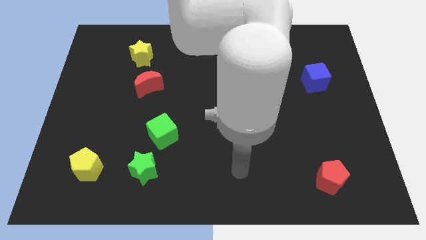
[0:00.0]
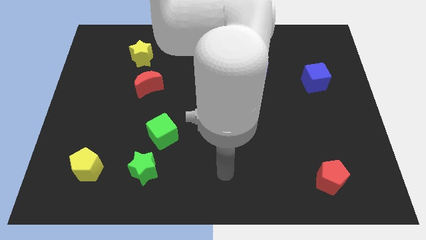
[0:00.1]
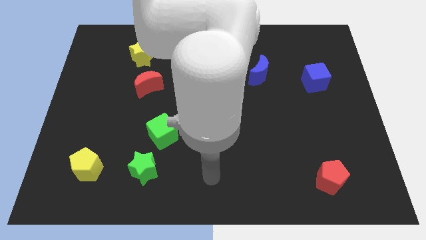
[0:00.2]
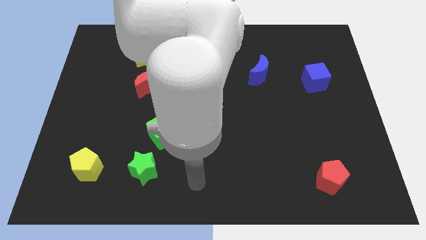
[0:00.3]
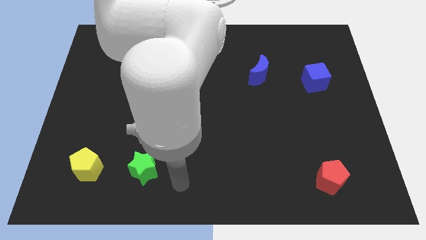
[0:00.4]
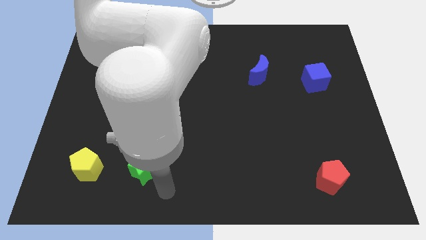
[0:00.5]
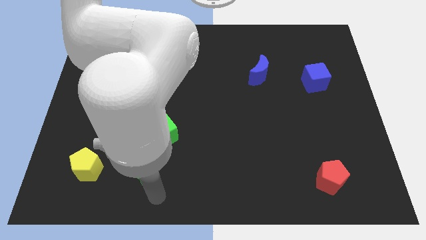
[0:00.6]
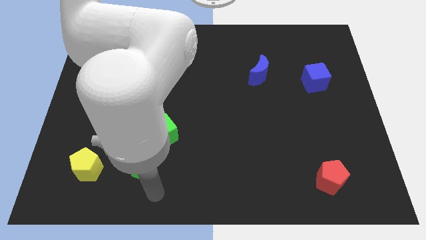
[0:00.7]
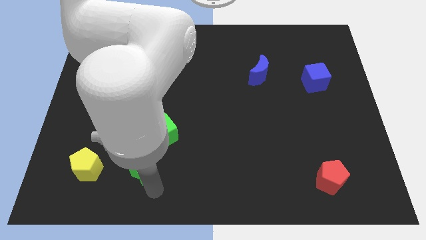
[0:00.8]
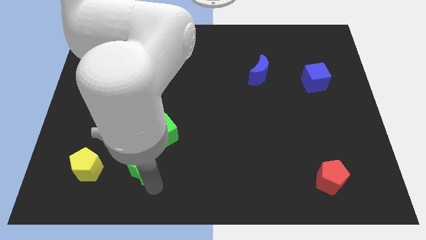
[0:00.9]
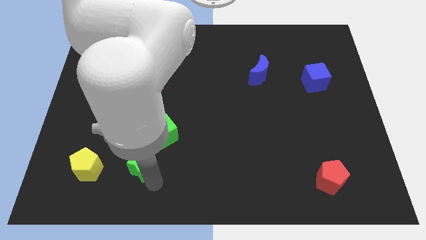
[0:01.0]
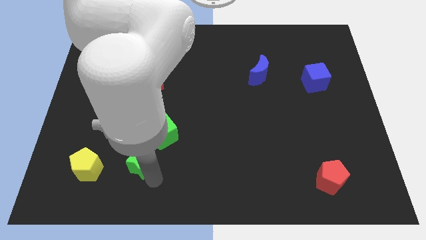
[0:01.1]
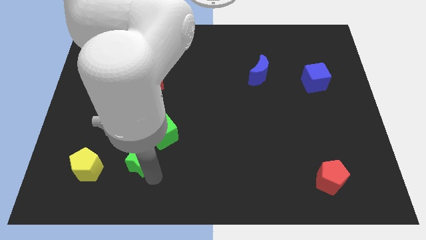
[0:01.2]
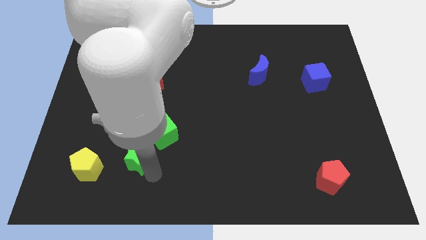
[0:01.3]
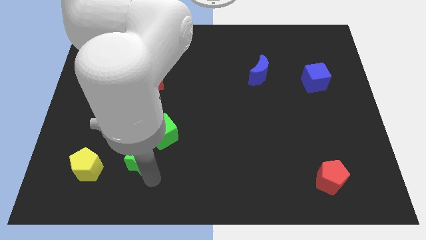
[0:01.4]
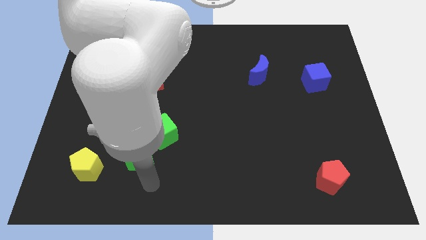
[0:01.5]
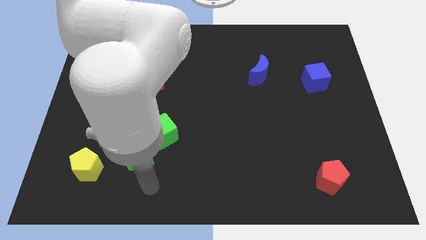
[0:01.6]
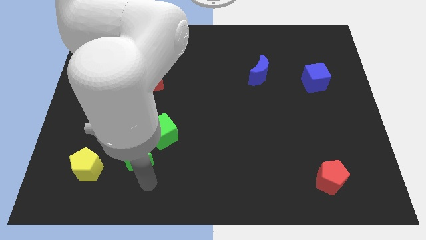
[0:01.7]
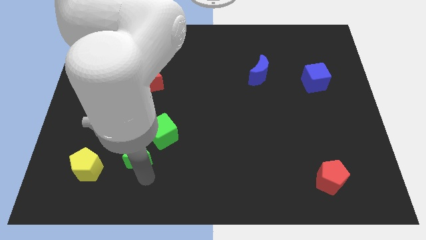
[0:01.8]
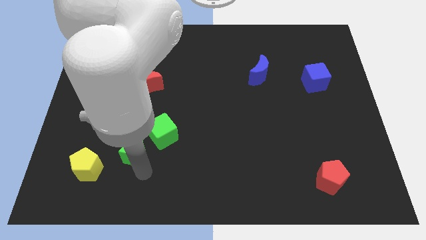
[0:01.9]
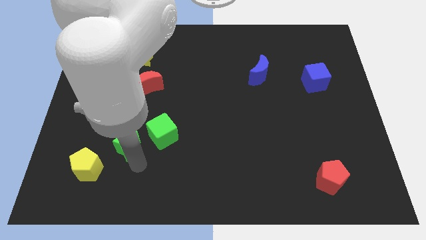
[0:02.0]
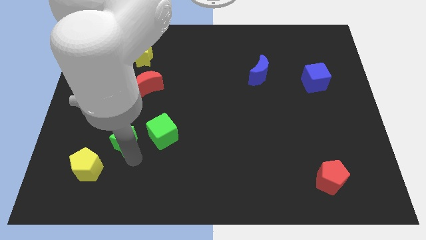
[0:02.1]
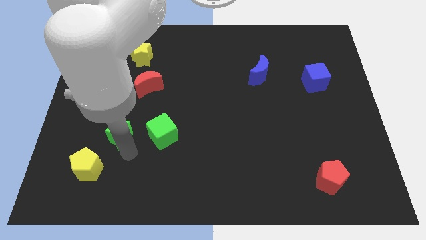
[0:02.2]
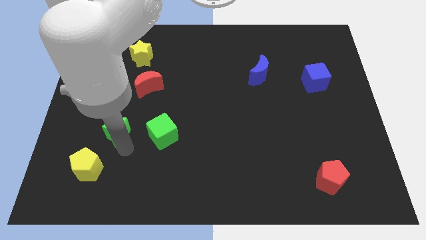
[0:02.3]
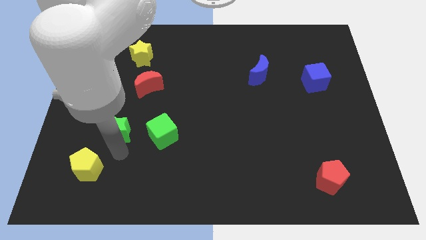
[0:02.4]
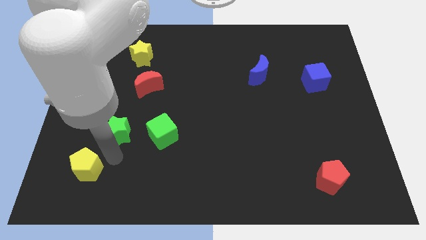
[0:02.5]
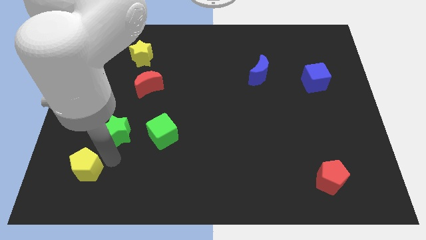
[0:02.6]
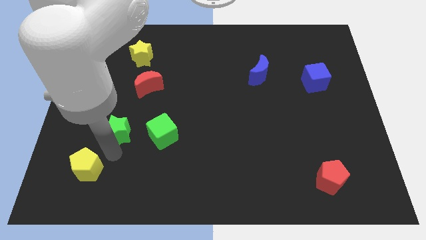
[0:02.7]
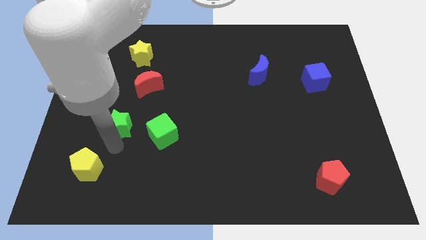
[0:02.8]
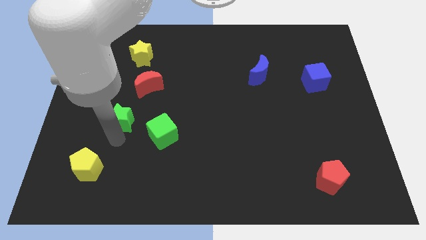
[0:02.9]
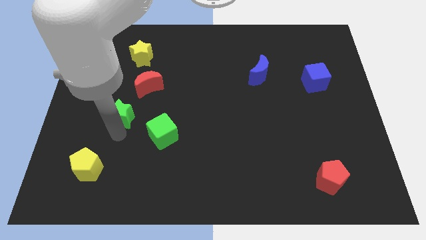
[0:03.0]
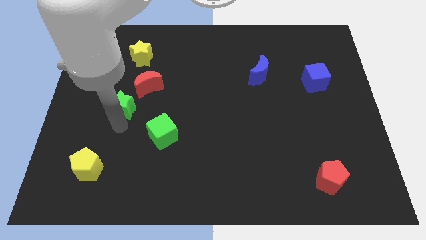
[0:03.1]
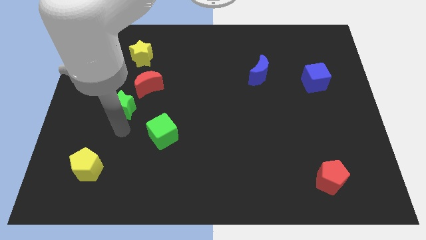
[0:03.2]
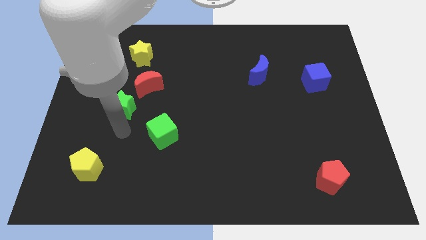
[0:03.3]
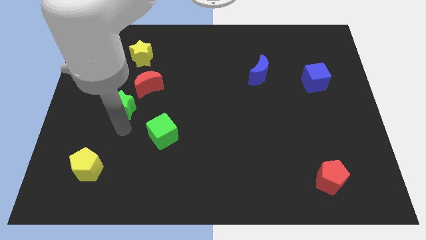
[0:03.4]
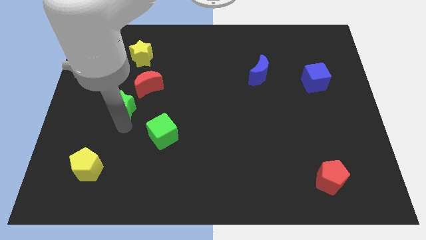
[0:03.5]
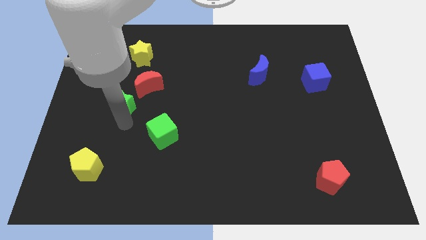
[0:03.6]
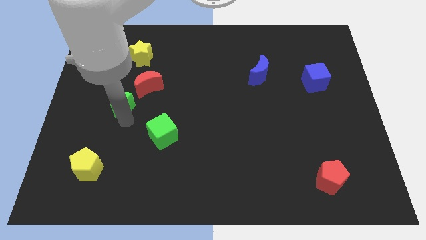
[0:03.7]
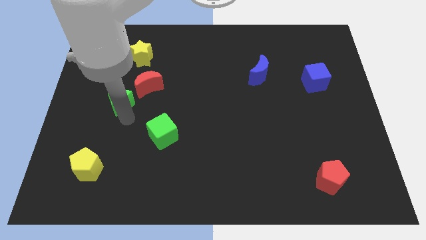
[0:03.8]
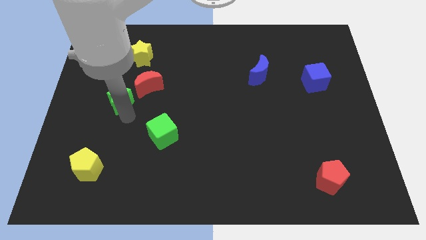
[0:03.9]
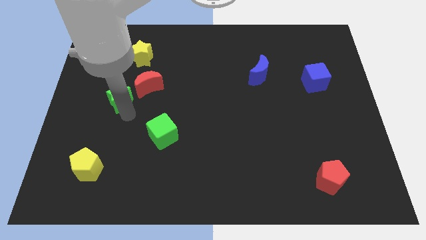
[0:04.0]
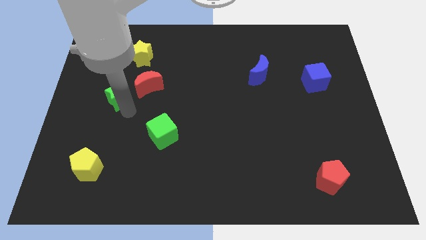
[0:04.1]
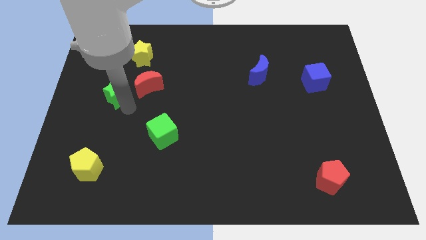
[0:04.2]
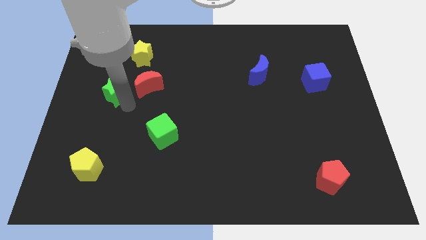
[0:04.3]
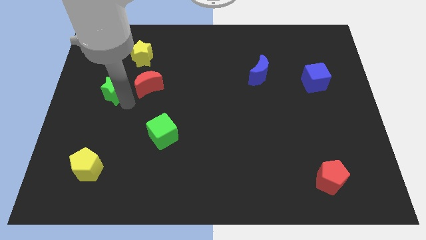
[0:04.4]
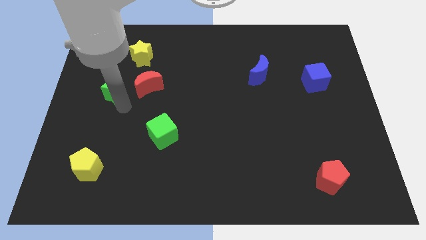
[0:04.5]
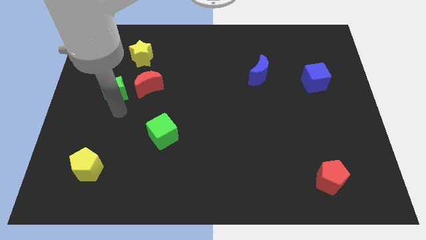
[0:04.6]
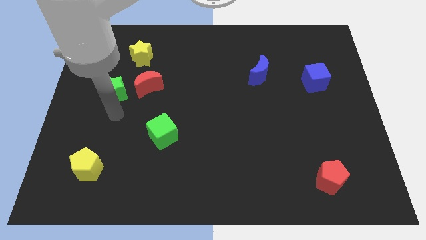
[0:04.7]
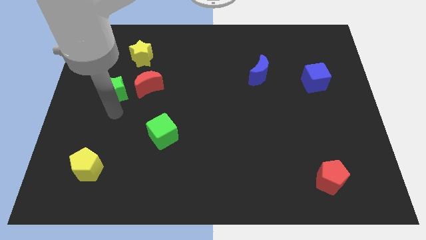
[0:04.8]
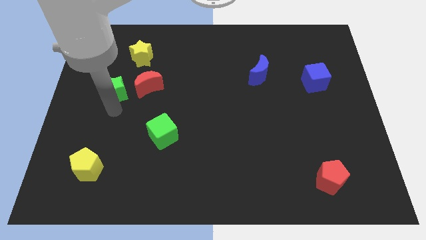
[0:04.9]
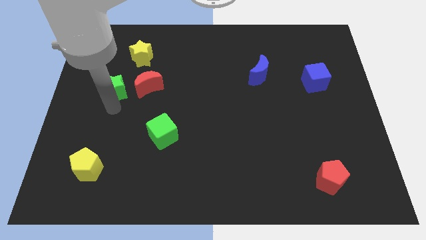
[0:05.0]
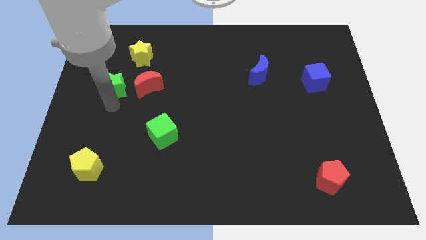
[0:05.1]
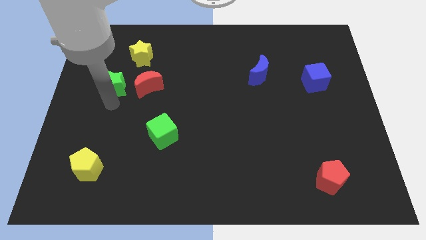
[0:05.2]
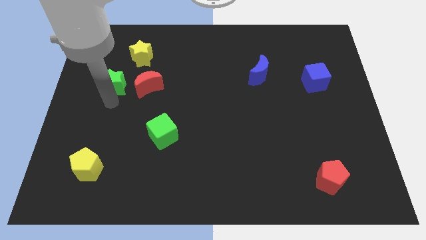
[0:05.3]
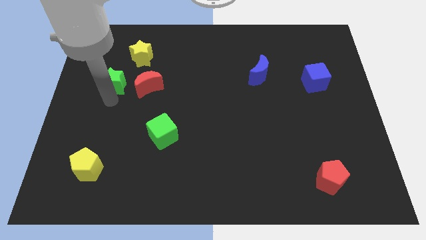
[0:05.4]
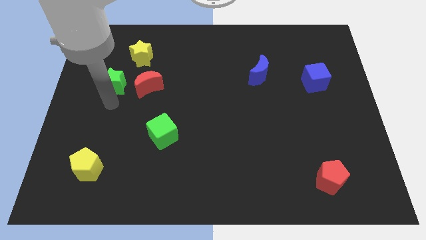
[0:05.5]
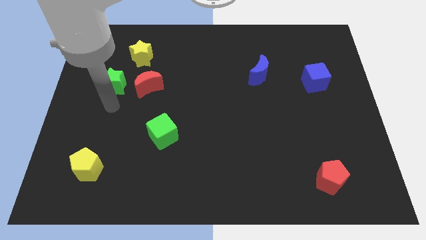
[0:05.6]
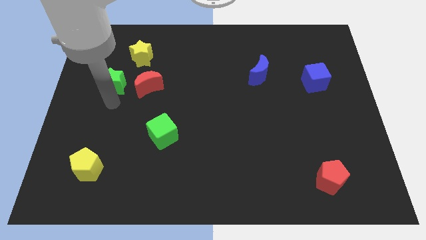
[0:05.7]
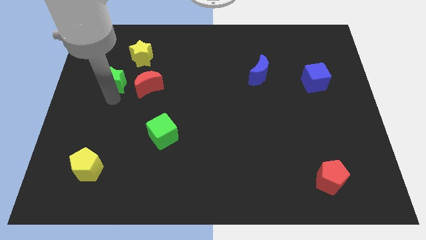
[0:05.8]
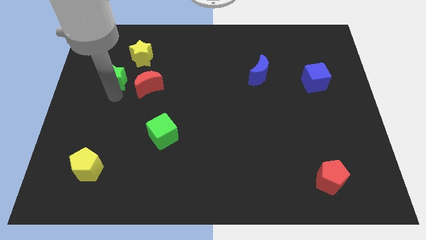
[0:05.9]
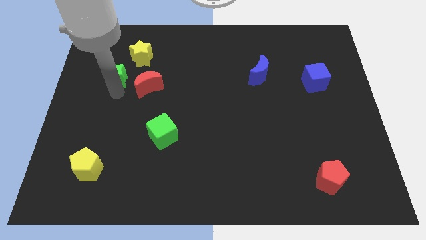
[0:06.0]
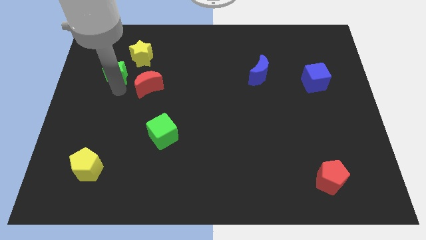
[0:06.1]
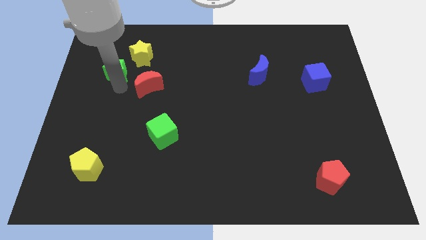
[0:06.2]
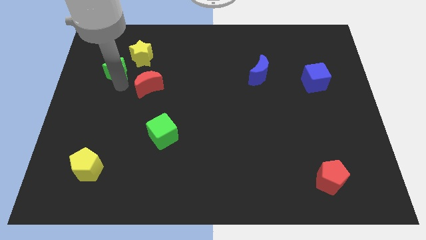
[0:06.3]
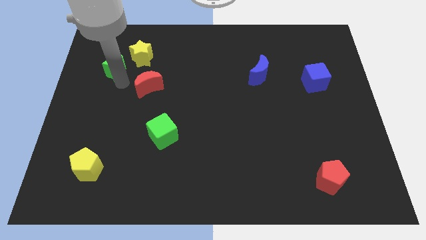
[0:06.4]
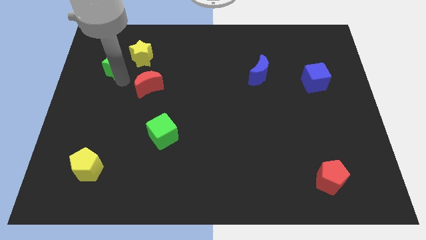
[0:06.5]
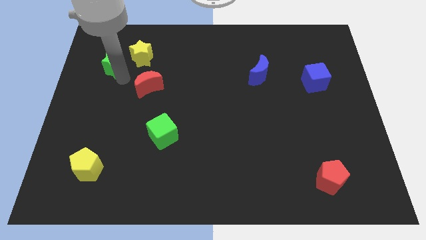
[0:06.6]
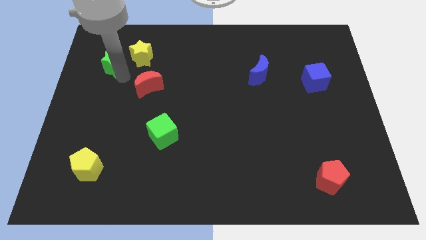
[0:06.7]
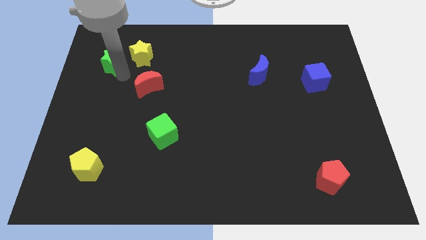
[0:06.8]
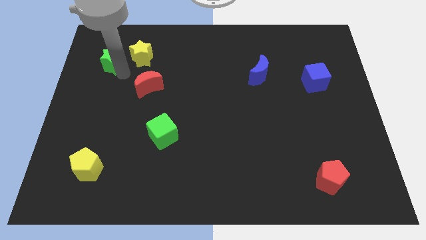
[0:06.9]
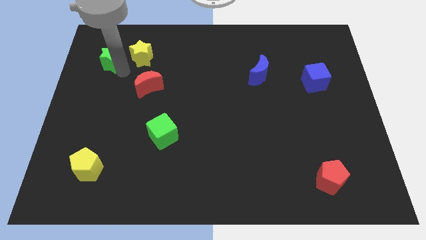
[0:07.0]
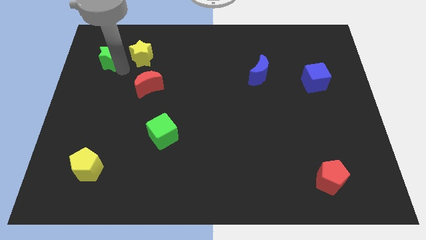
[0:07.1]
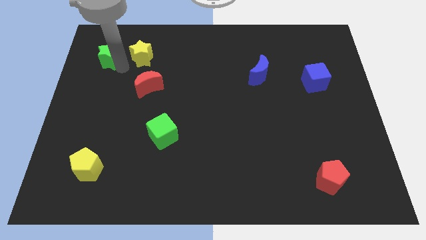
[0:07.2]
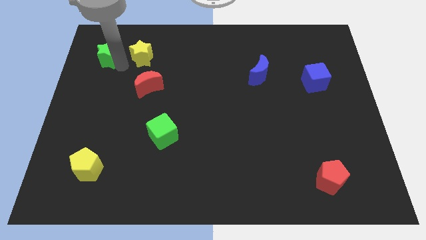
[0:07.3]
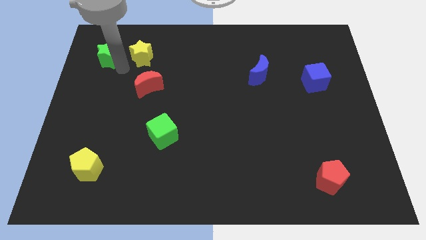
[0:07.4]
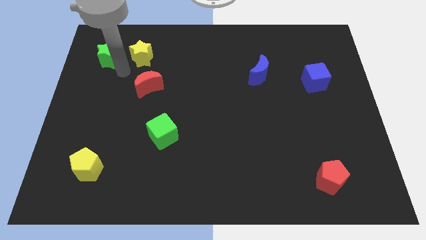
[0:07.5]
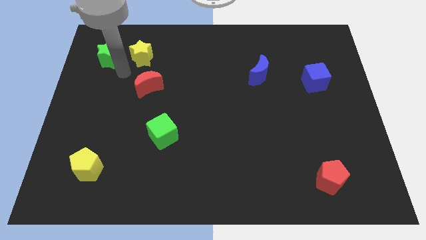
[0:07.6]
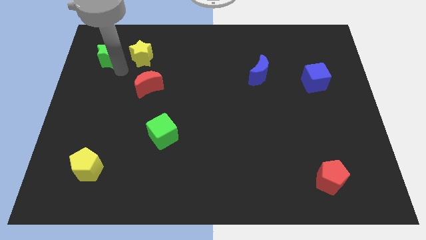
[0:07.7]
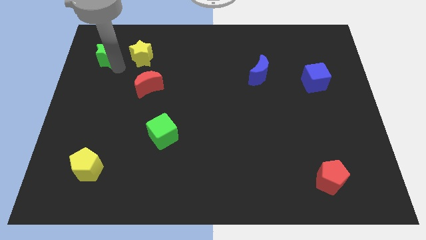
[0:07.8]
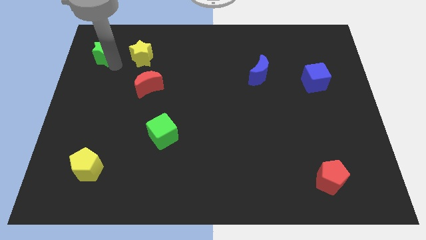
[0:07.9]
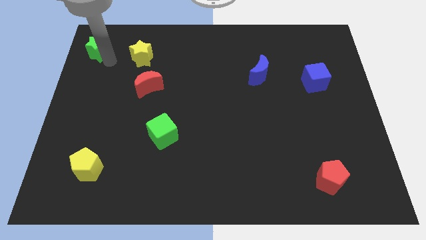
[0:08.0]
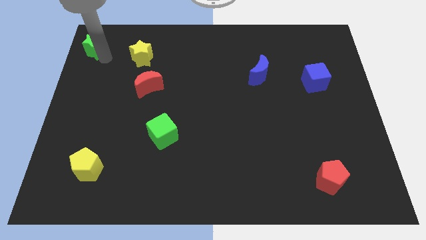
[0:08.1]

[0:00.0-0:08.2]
slide the green star to the top left of the board
